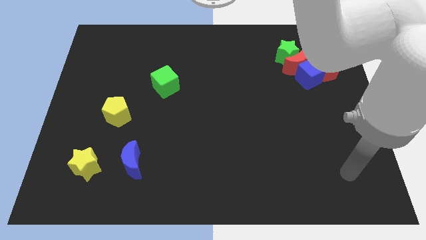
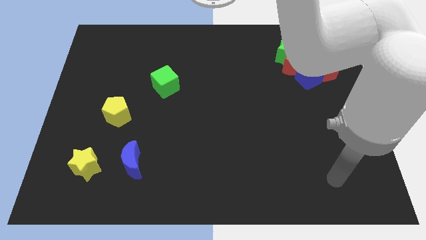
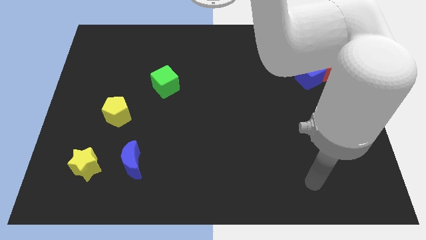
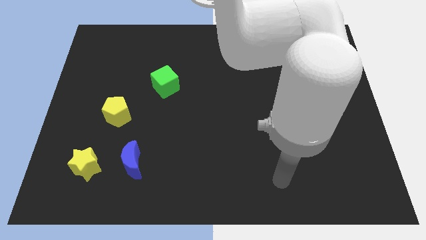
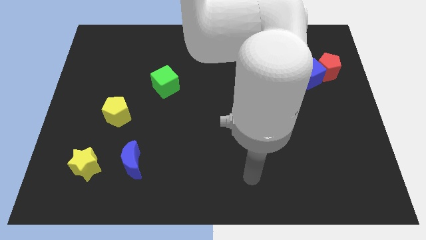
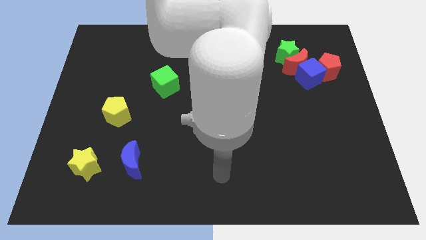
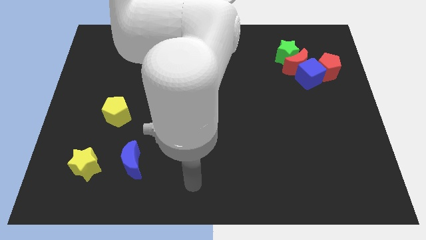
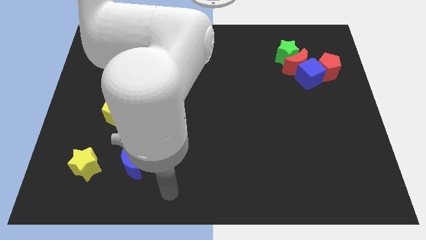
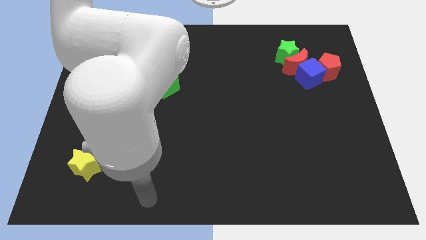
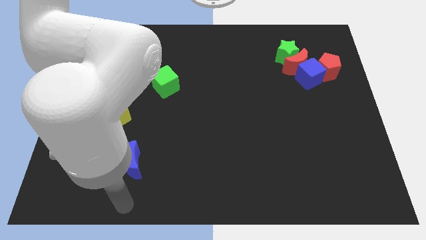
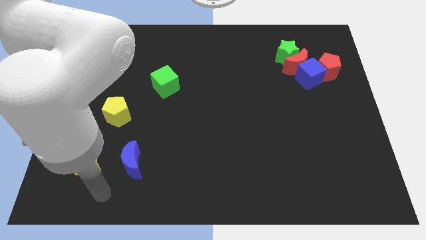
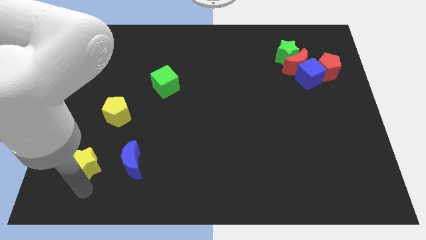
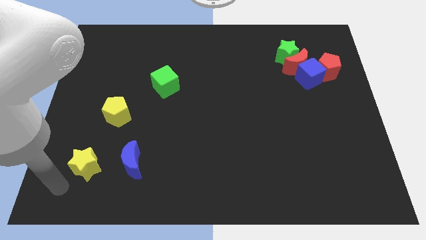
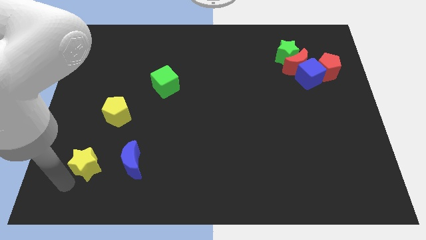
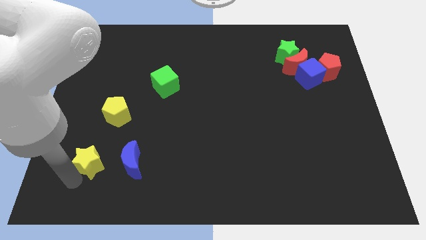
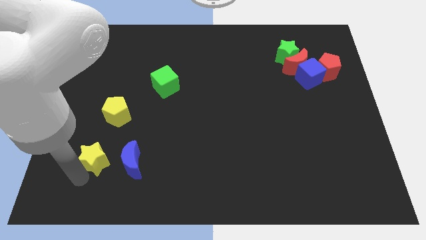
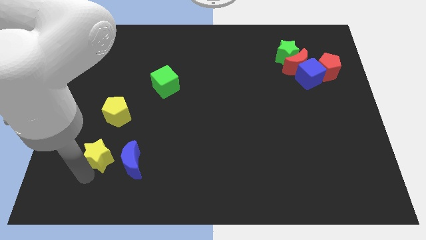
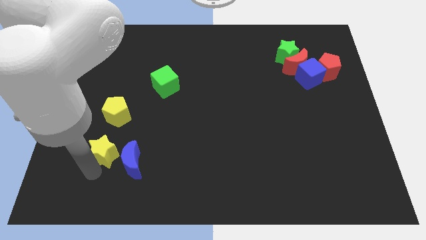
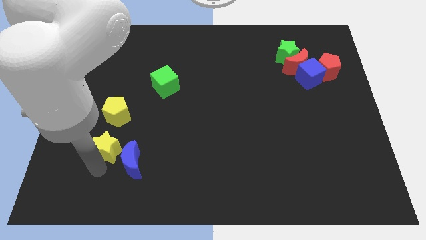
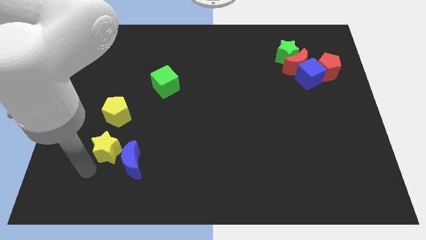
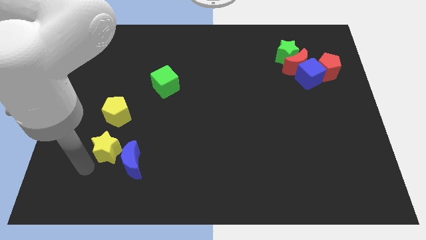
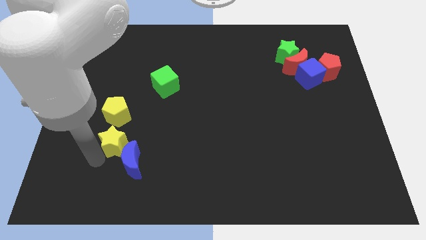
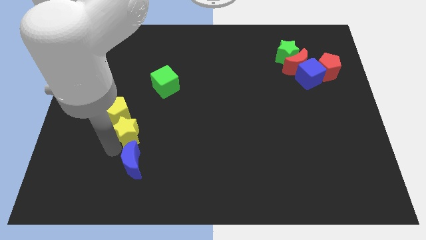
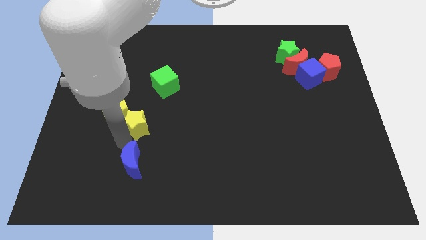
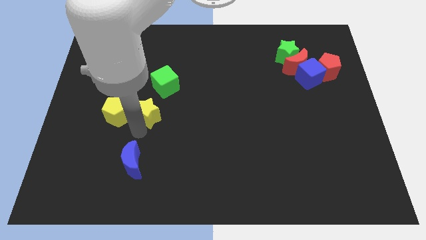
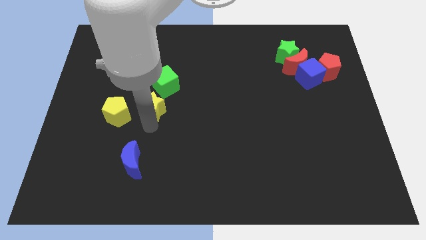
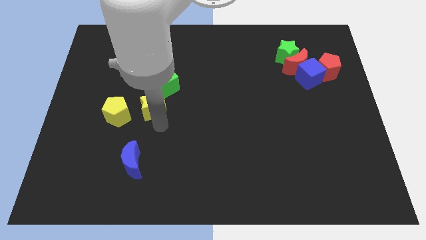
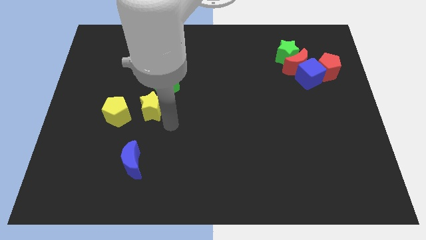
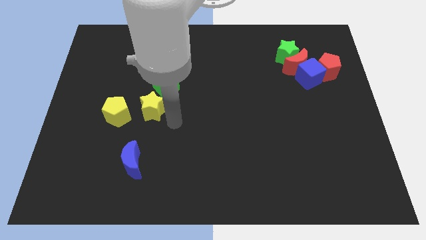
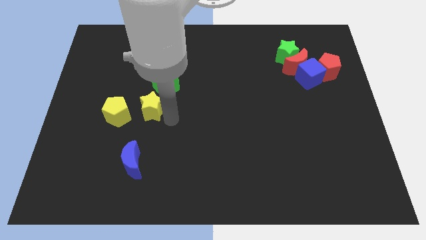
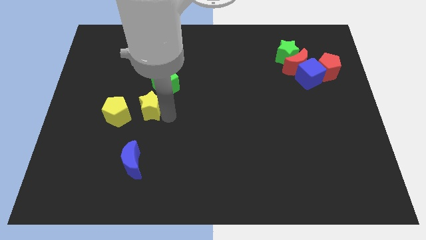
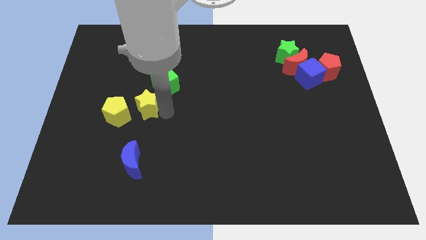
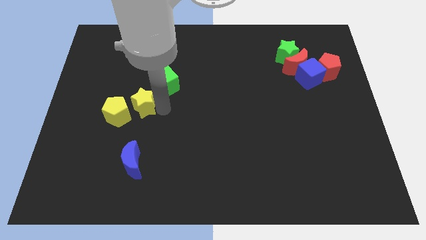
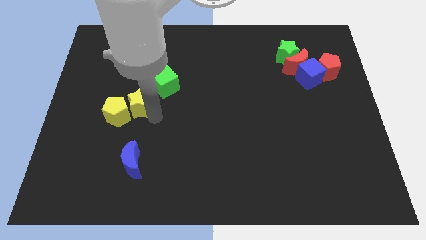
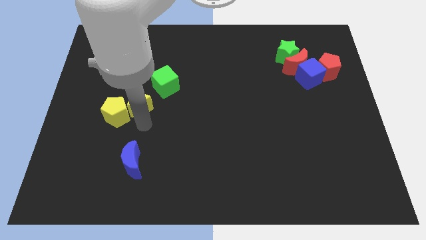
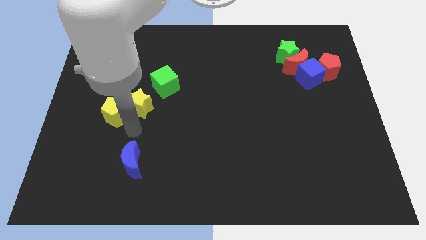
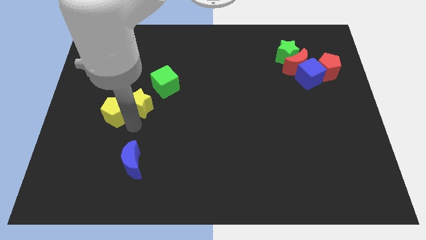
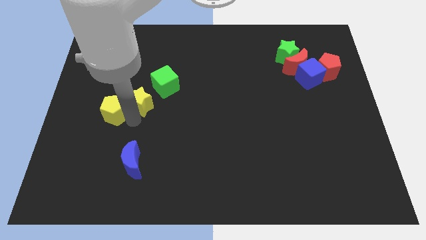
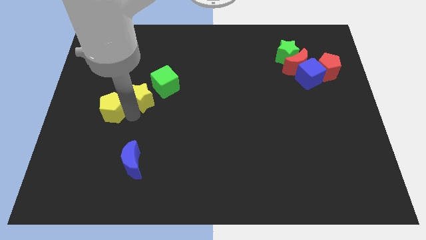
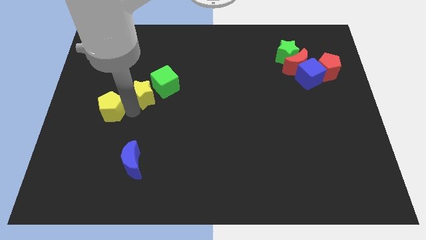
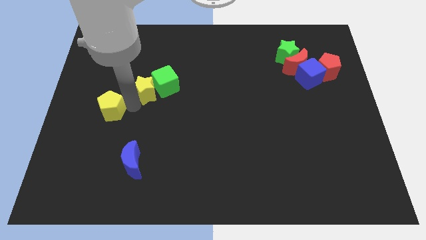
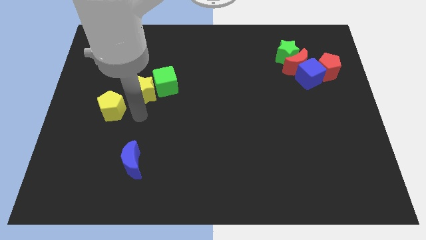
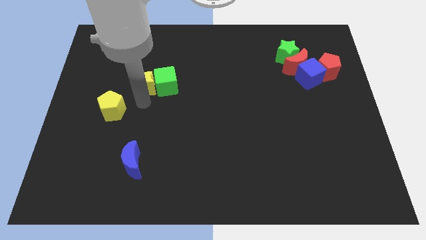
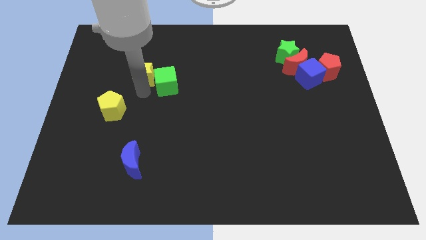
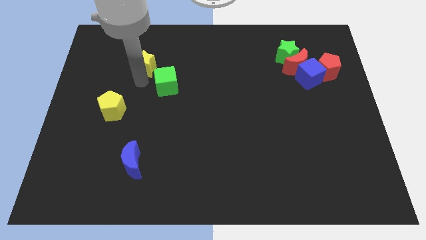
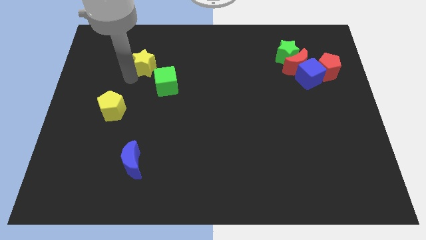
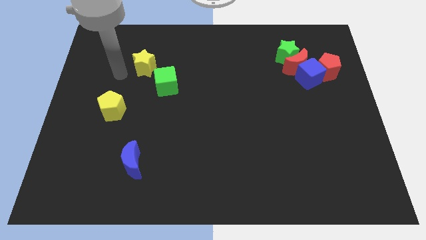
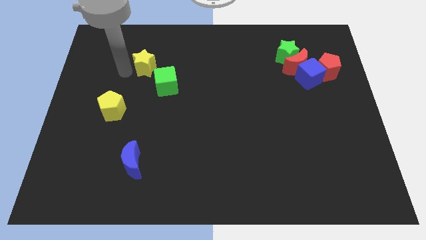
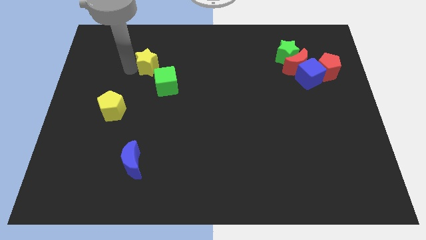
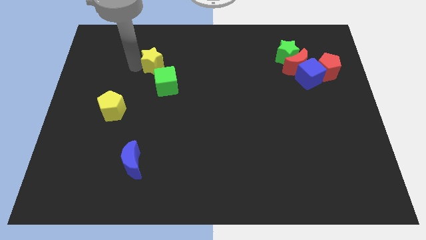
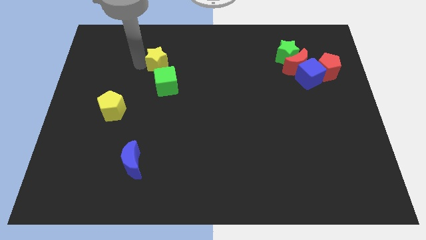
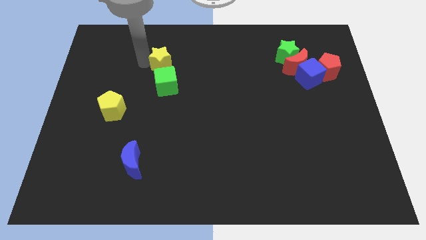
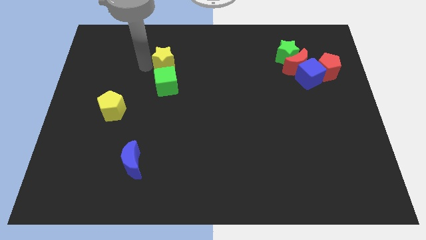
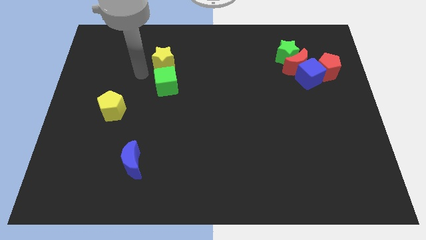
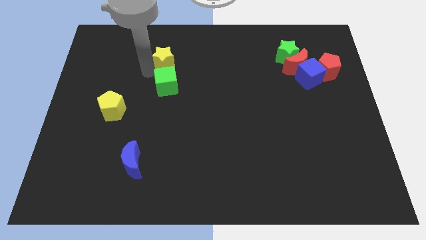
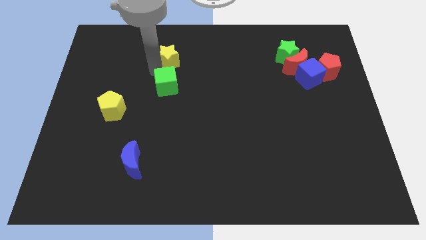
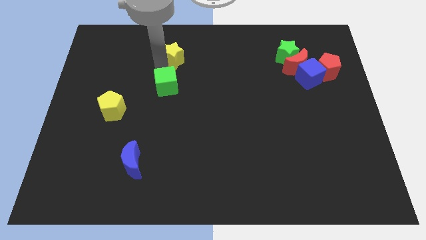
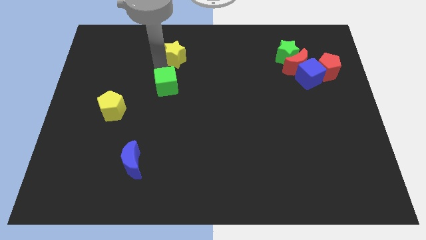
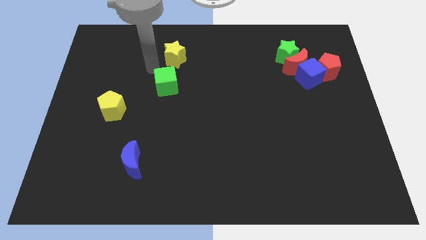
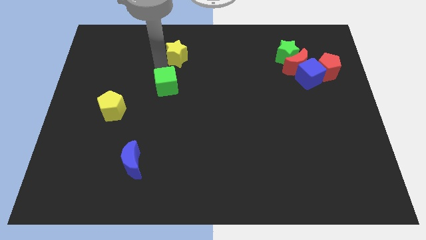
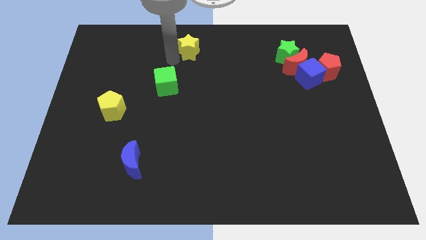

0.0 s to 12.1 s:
slide the yellow star to the top side

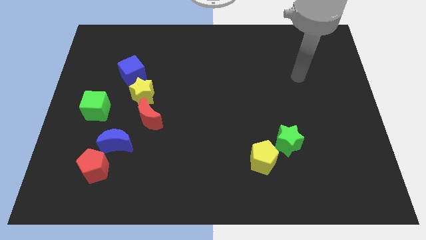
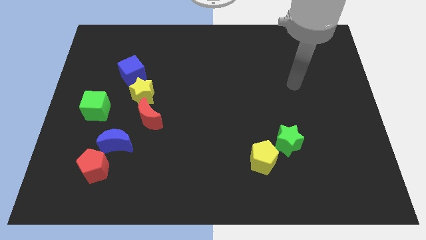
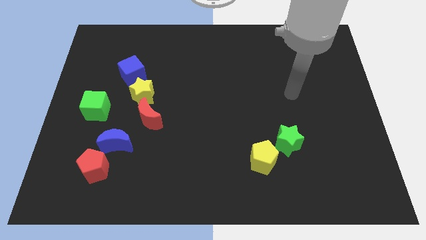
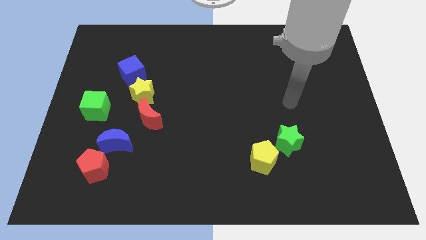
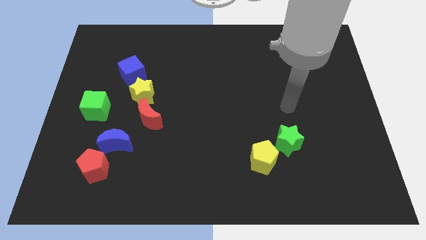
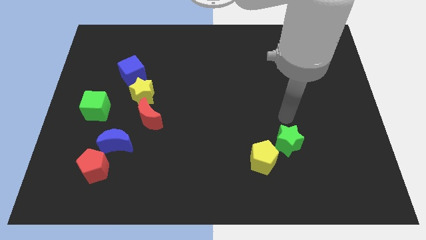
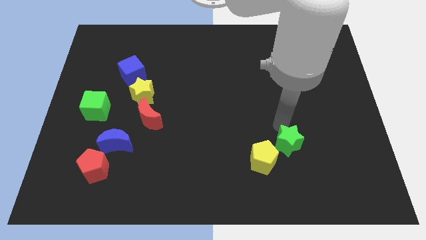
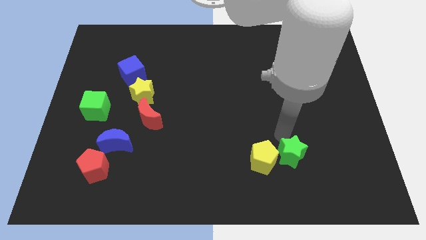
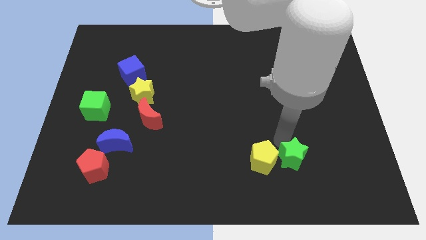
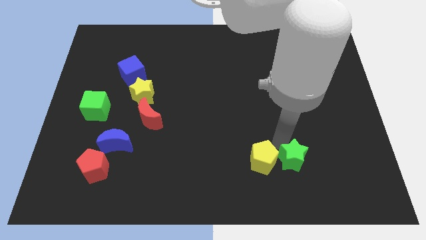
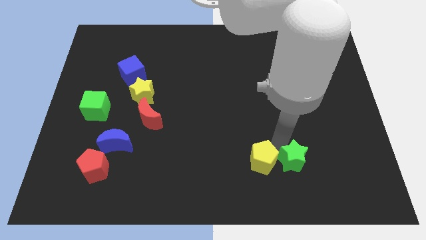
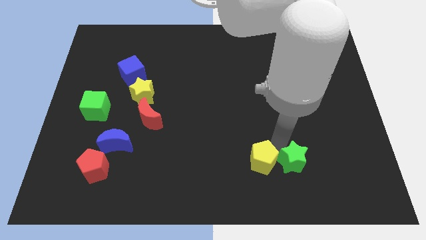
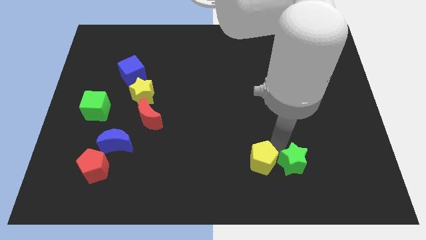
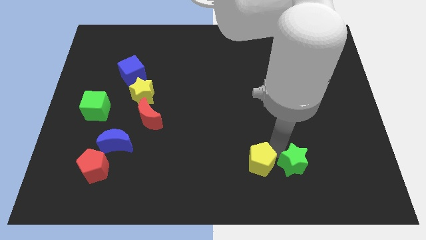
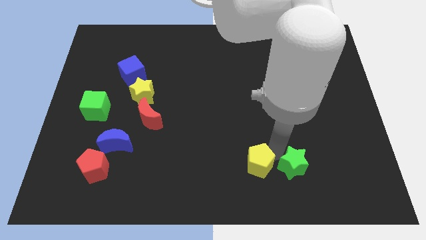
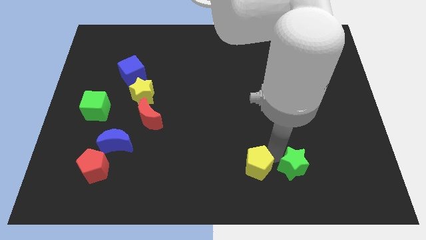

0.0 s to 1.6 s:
put the yellow pentagon to the bottom
